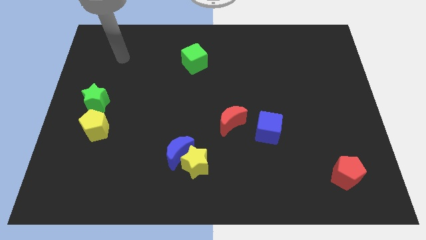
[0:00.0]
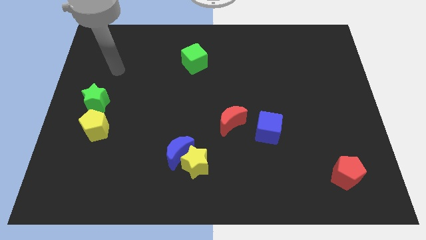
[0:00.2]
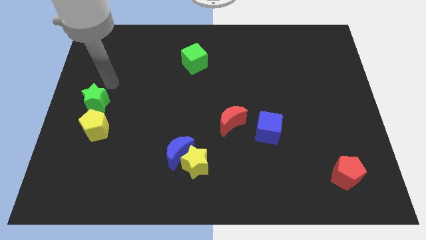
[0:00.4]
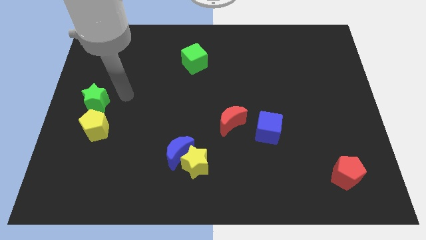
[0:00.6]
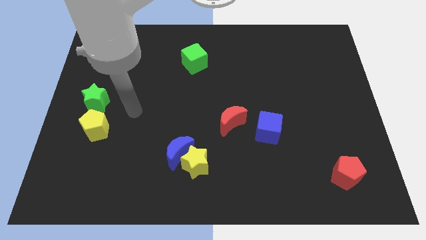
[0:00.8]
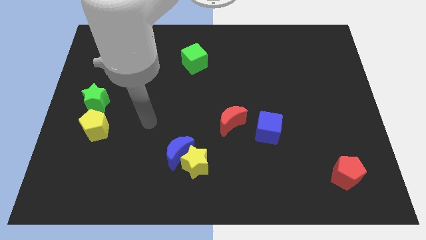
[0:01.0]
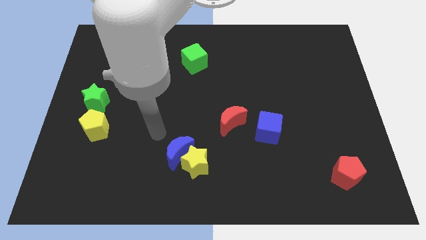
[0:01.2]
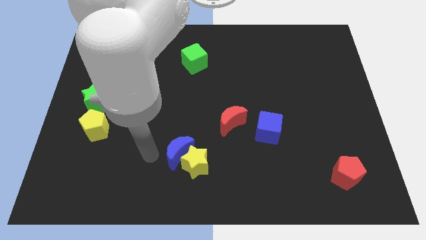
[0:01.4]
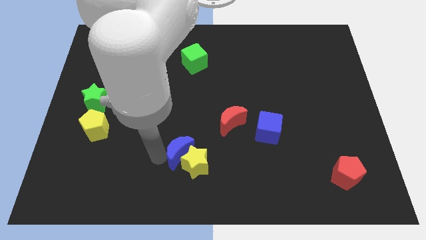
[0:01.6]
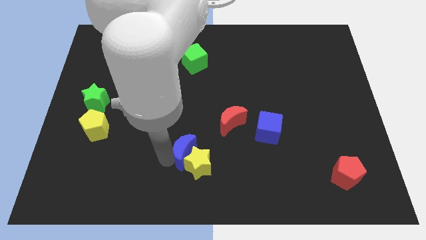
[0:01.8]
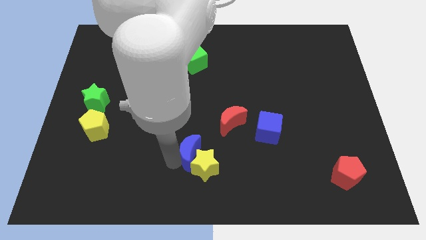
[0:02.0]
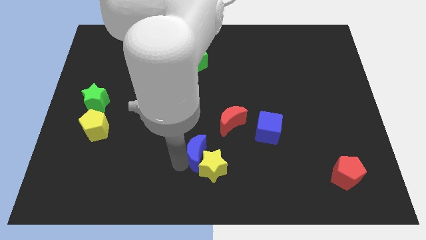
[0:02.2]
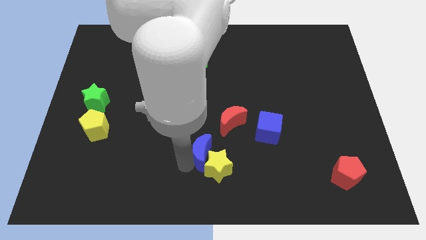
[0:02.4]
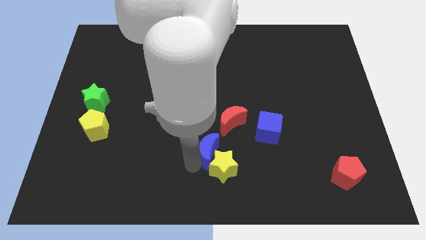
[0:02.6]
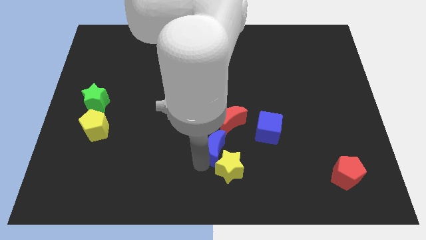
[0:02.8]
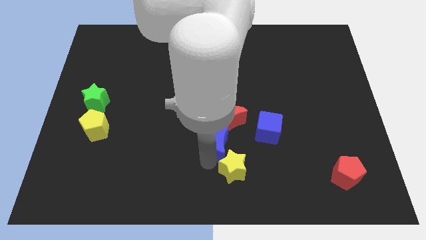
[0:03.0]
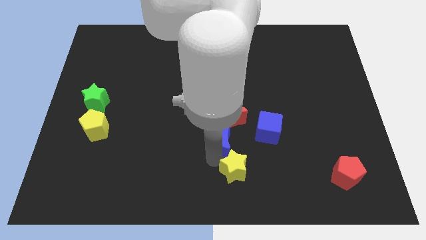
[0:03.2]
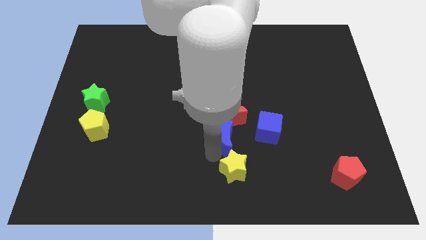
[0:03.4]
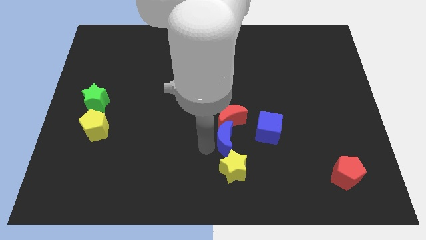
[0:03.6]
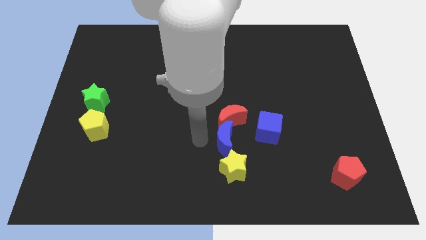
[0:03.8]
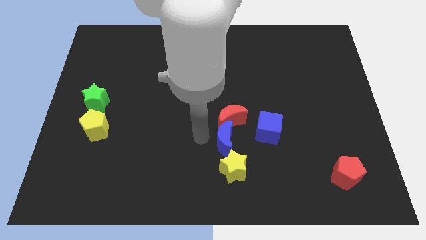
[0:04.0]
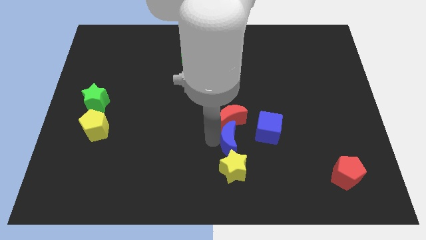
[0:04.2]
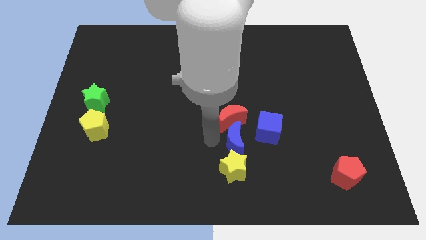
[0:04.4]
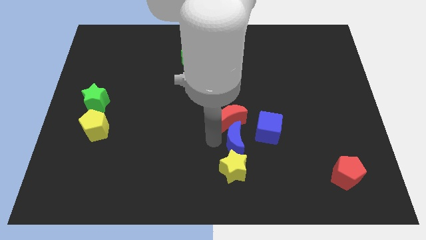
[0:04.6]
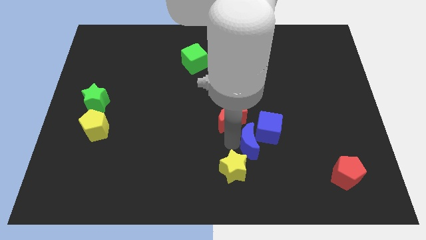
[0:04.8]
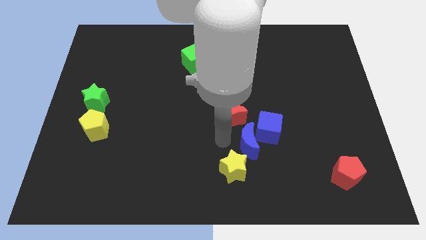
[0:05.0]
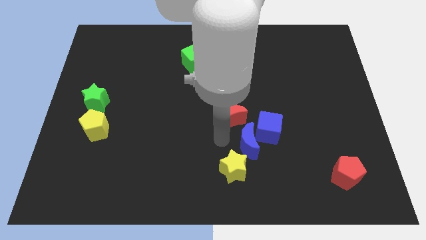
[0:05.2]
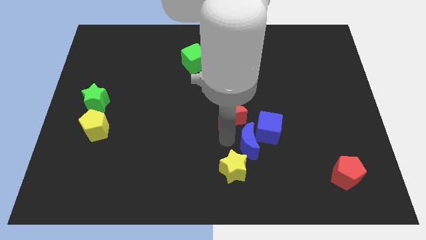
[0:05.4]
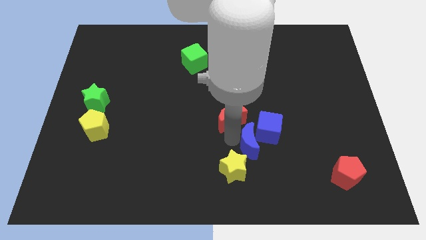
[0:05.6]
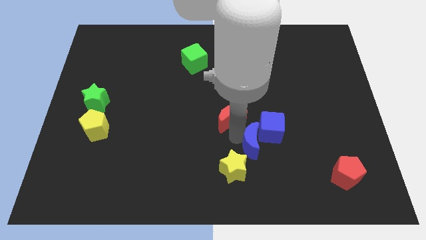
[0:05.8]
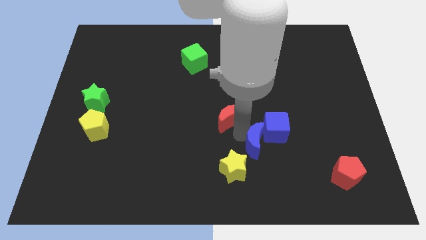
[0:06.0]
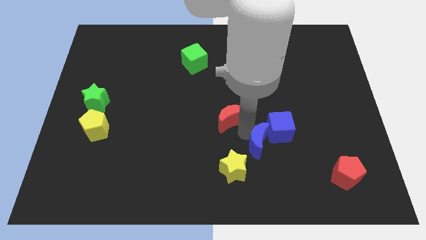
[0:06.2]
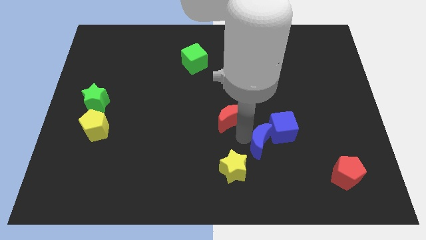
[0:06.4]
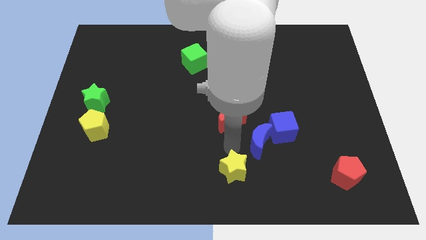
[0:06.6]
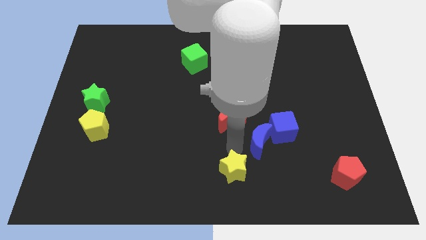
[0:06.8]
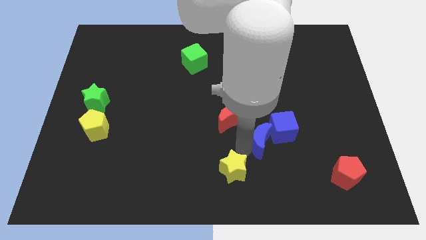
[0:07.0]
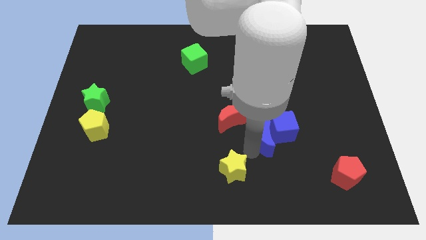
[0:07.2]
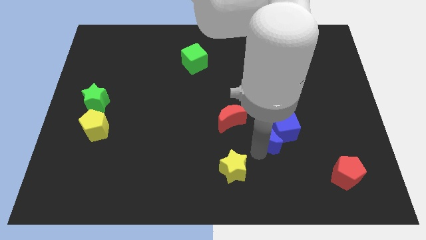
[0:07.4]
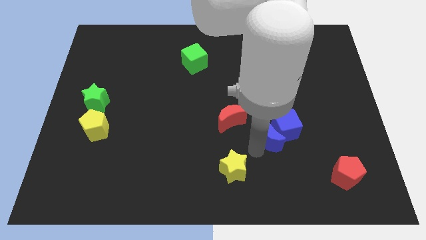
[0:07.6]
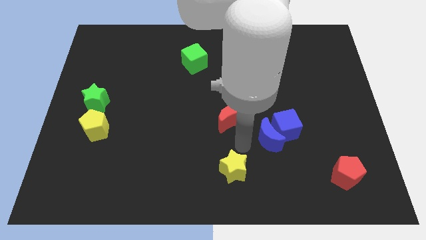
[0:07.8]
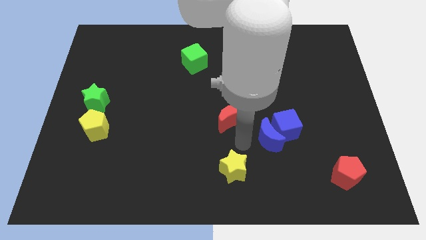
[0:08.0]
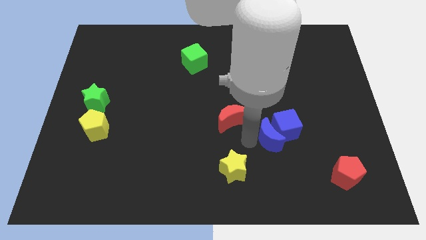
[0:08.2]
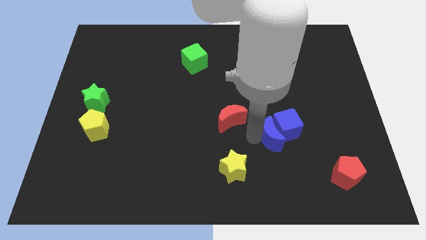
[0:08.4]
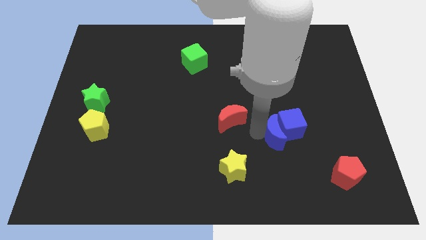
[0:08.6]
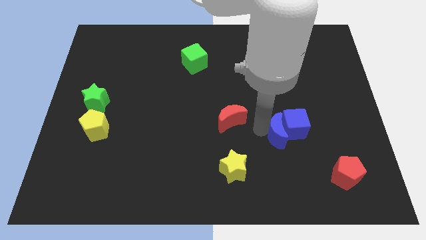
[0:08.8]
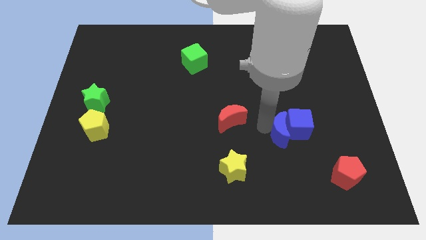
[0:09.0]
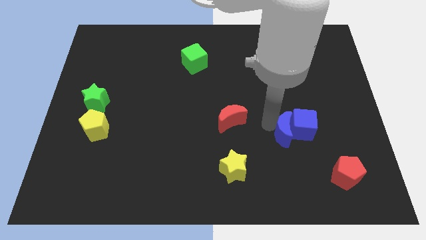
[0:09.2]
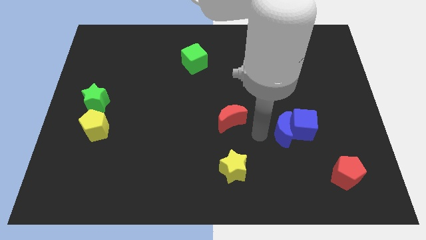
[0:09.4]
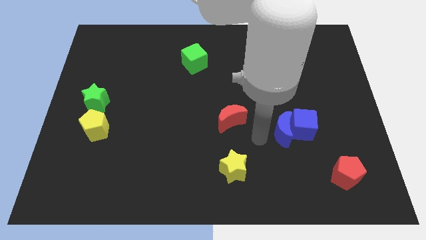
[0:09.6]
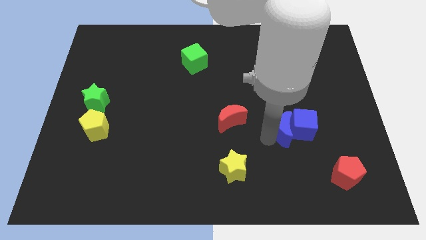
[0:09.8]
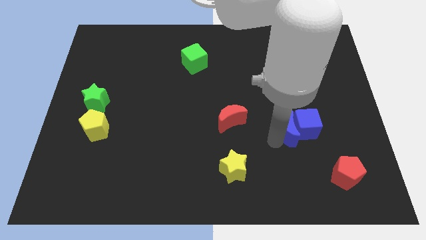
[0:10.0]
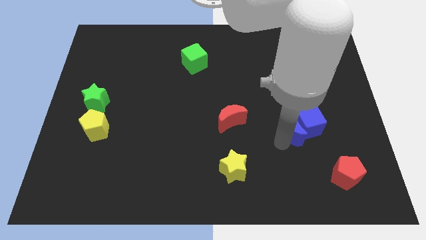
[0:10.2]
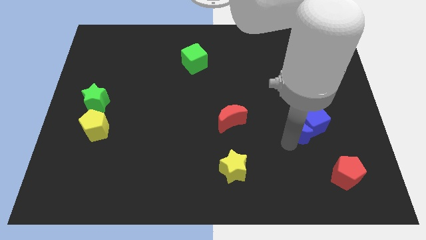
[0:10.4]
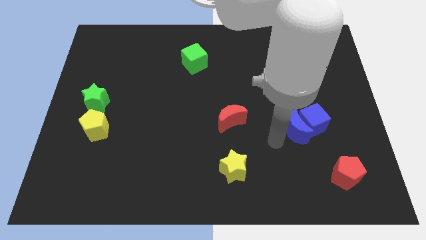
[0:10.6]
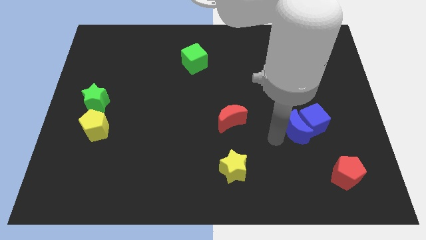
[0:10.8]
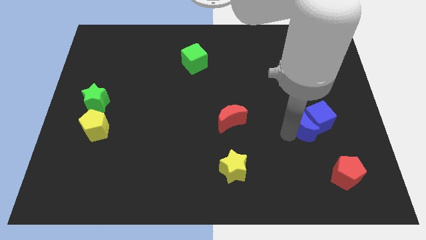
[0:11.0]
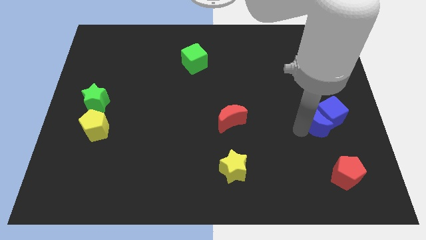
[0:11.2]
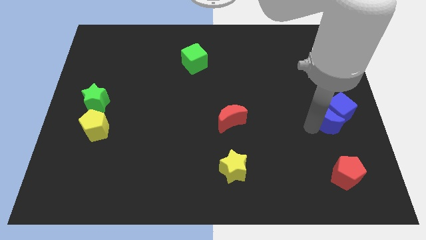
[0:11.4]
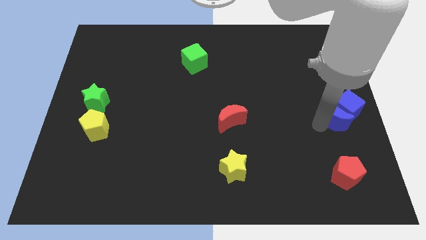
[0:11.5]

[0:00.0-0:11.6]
push the blue moon to the right side

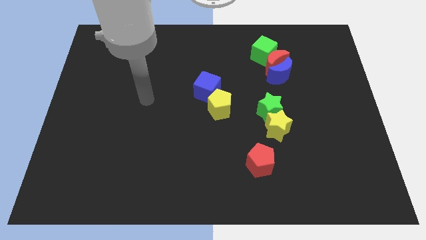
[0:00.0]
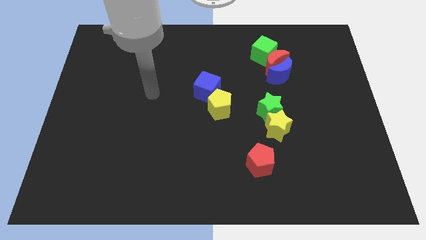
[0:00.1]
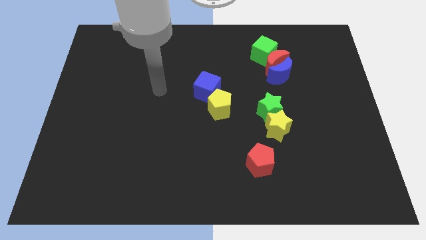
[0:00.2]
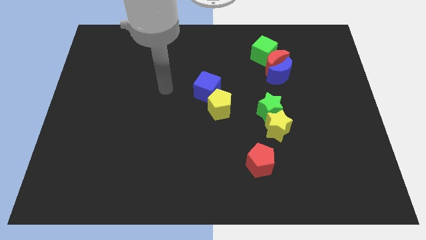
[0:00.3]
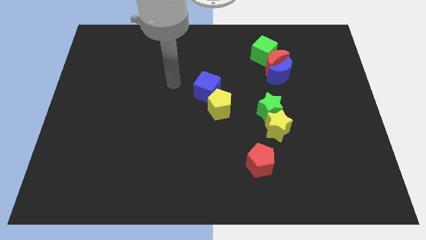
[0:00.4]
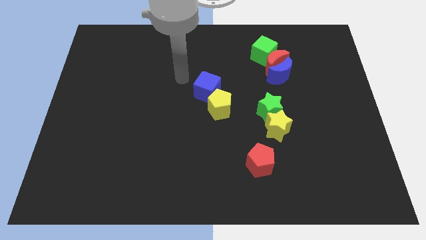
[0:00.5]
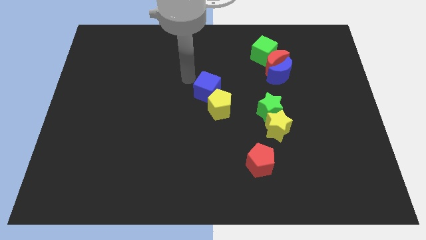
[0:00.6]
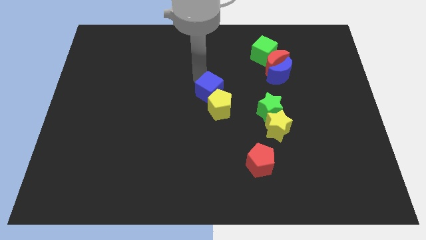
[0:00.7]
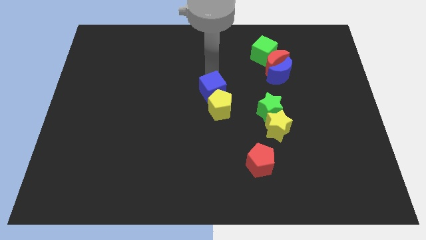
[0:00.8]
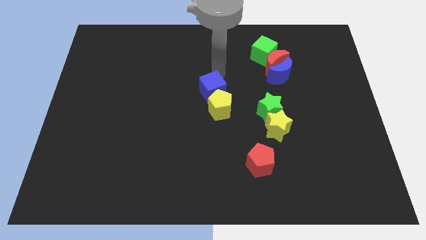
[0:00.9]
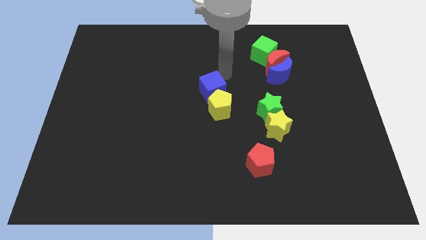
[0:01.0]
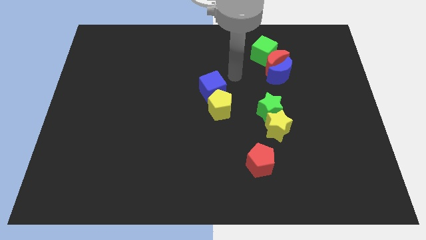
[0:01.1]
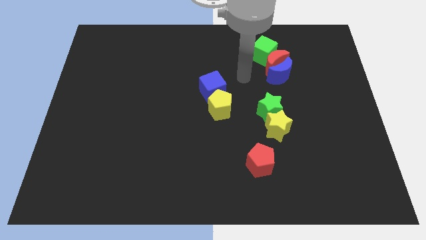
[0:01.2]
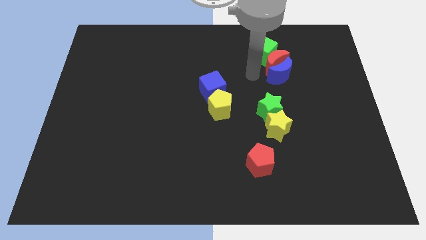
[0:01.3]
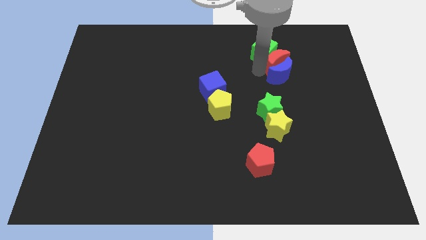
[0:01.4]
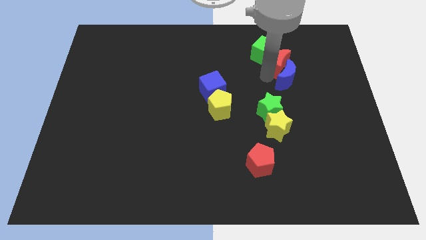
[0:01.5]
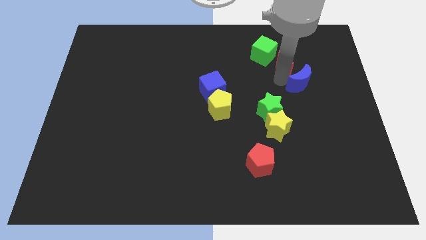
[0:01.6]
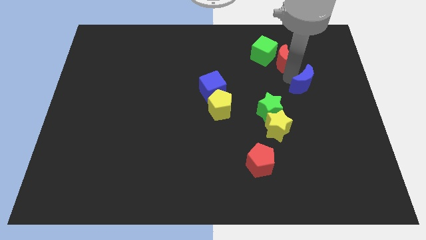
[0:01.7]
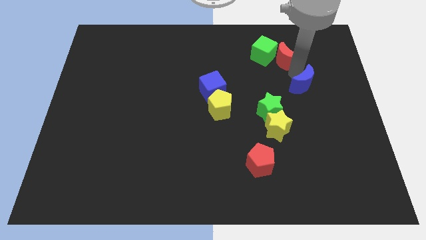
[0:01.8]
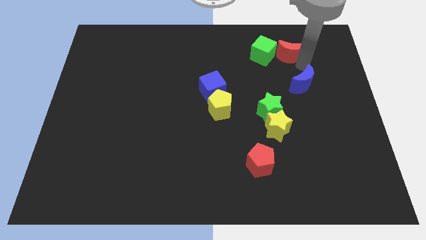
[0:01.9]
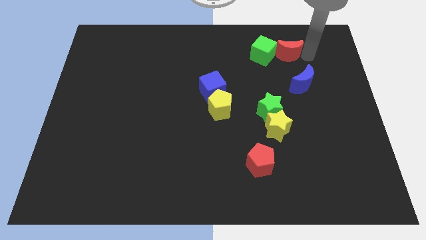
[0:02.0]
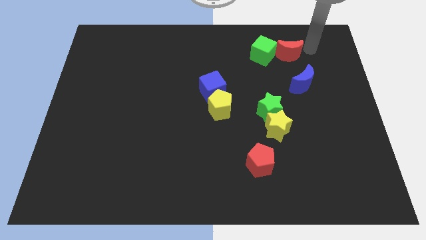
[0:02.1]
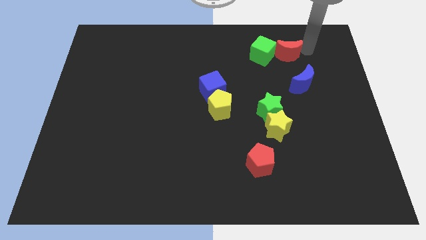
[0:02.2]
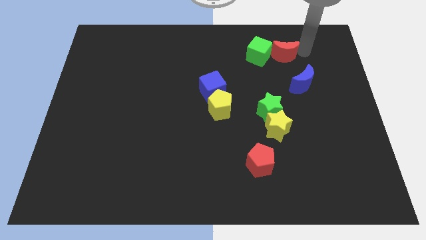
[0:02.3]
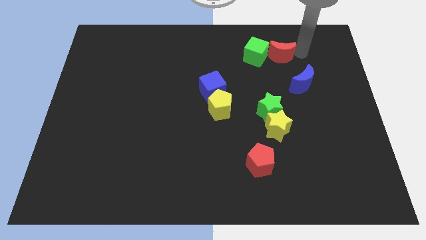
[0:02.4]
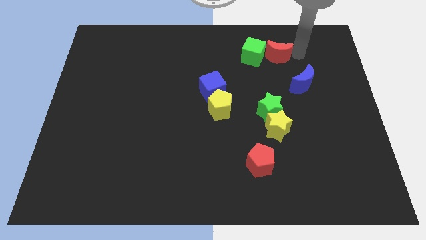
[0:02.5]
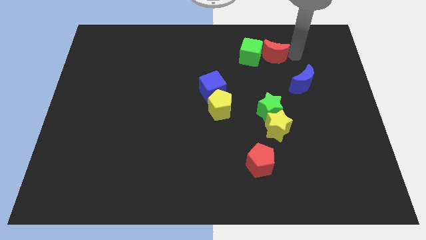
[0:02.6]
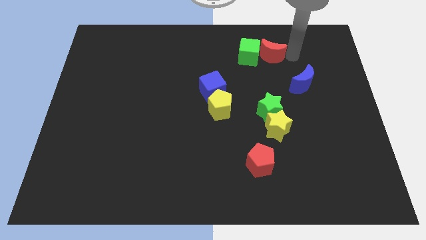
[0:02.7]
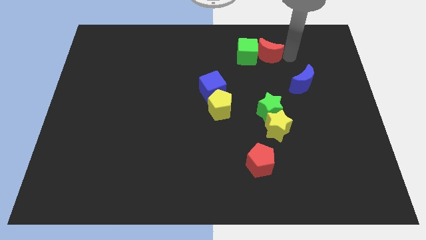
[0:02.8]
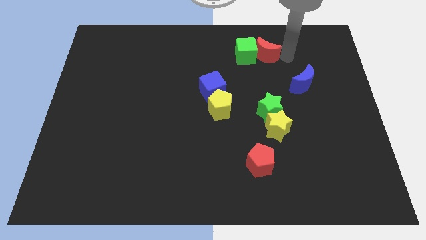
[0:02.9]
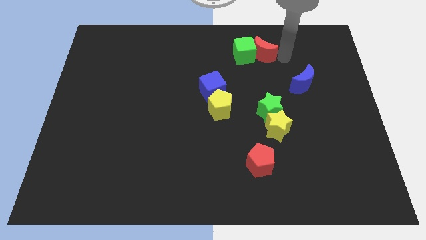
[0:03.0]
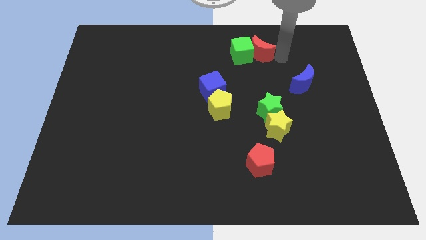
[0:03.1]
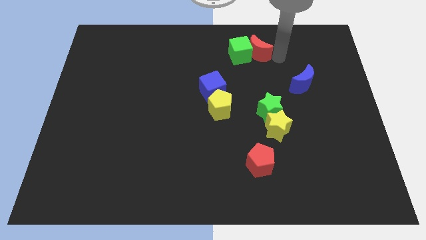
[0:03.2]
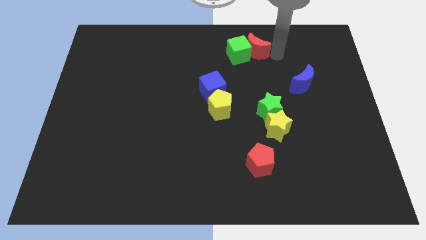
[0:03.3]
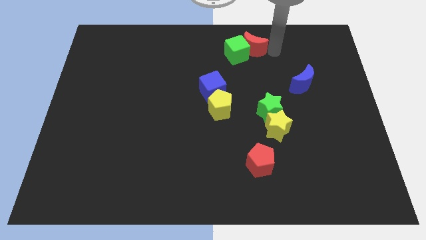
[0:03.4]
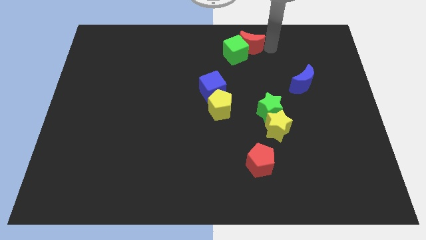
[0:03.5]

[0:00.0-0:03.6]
push the red moon to the towards your base
